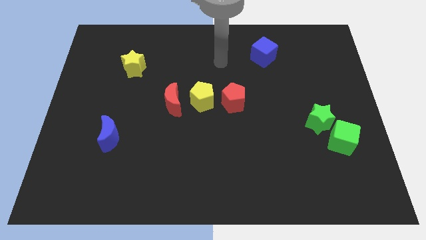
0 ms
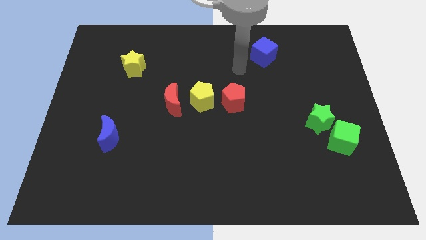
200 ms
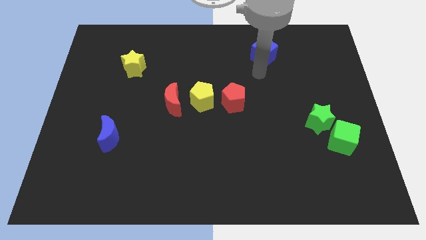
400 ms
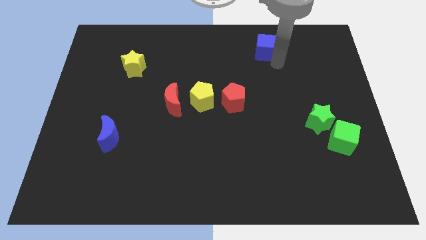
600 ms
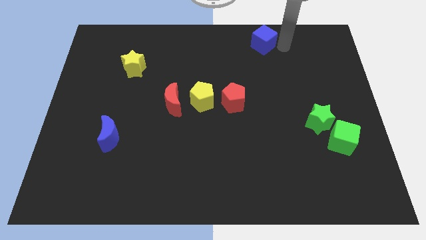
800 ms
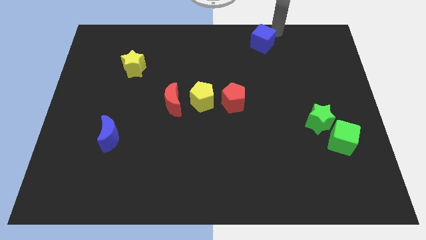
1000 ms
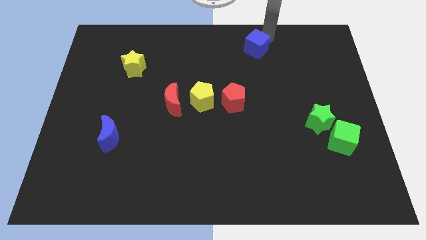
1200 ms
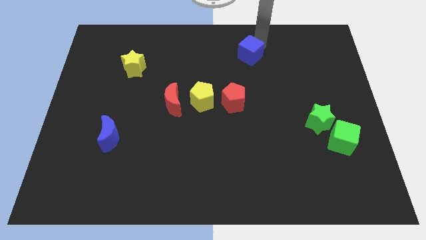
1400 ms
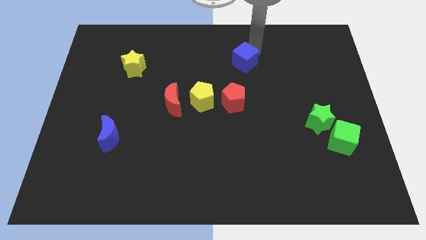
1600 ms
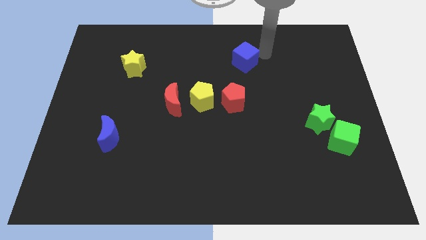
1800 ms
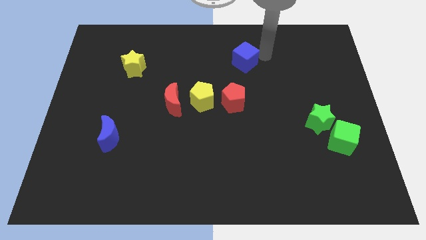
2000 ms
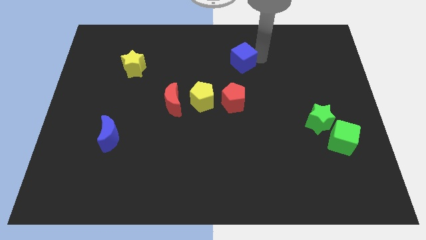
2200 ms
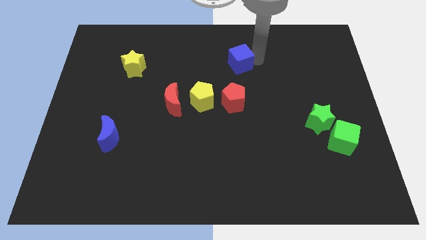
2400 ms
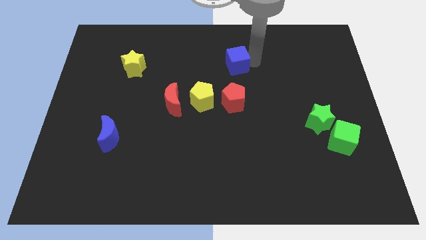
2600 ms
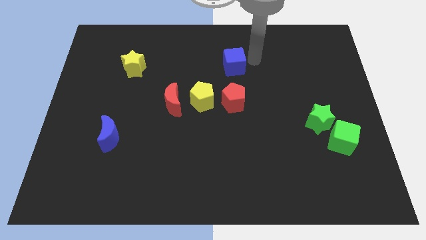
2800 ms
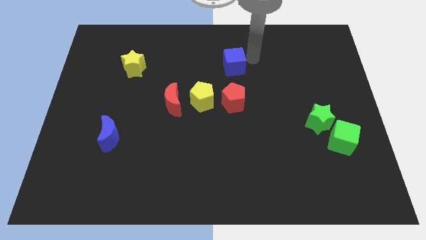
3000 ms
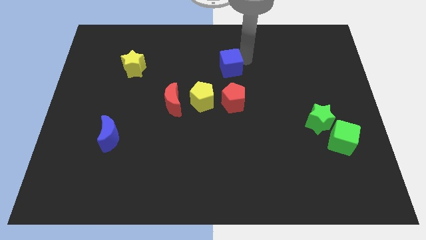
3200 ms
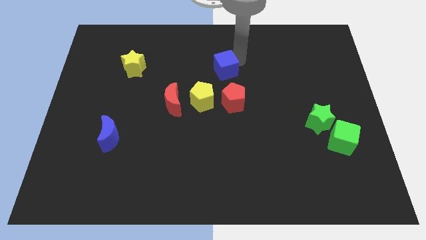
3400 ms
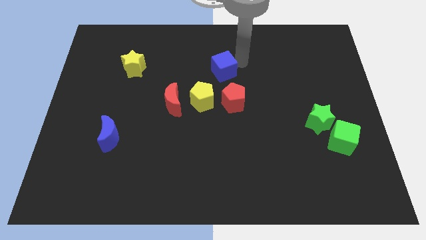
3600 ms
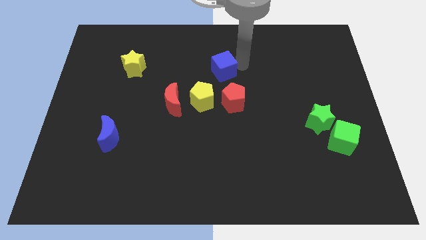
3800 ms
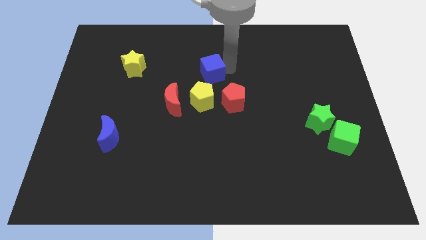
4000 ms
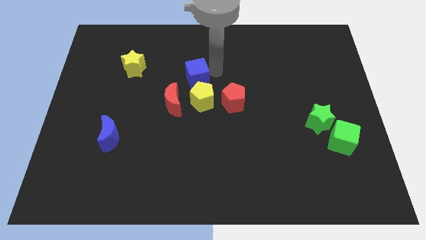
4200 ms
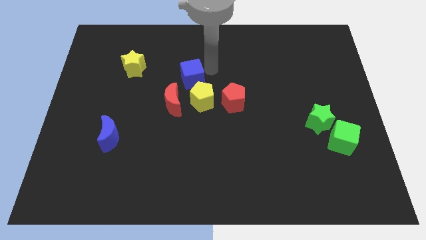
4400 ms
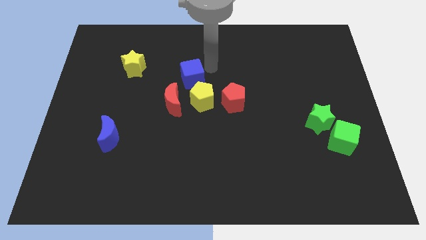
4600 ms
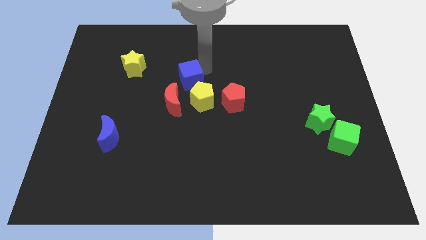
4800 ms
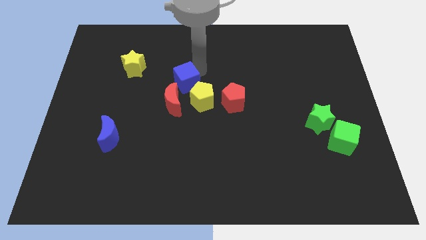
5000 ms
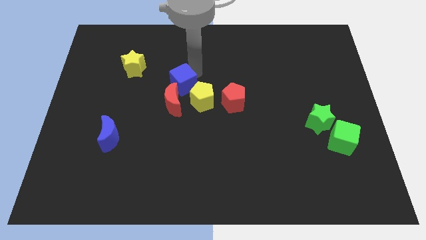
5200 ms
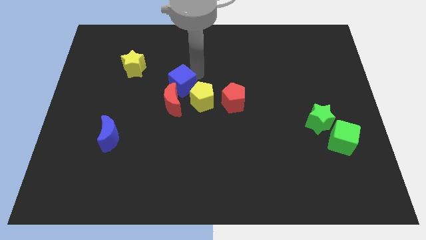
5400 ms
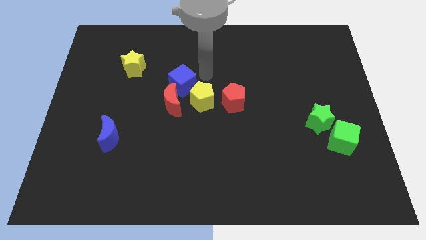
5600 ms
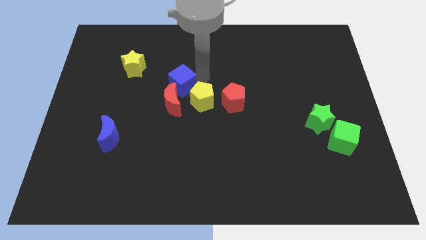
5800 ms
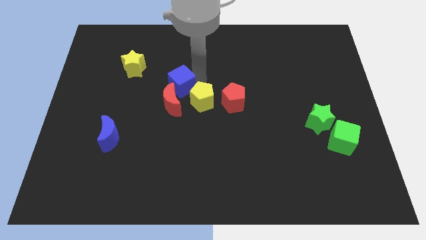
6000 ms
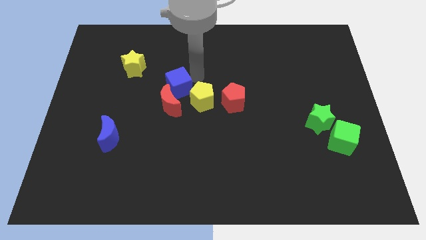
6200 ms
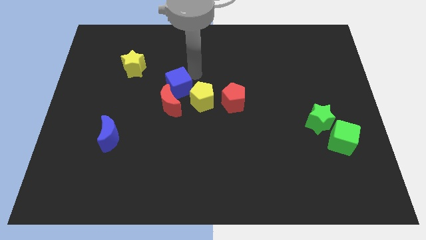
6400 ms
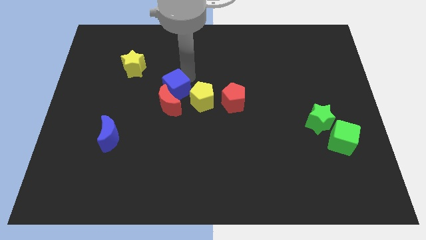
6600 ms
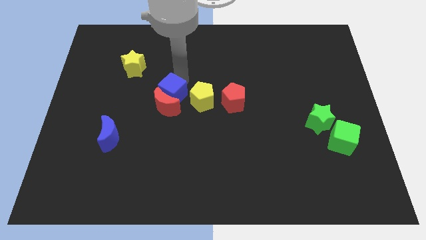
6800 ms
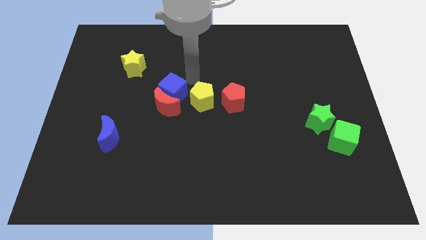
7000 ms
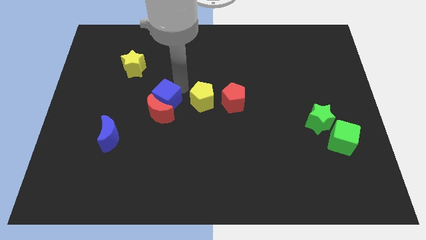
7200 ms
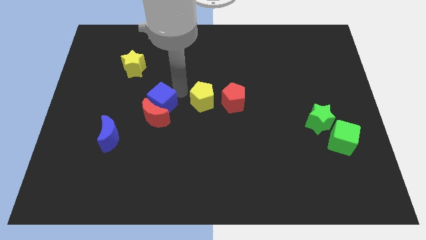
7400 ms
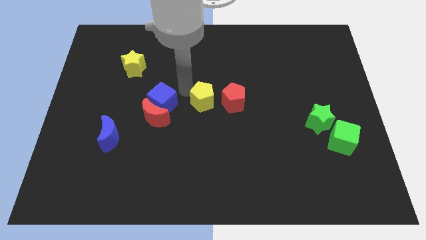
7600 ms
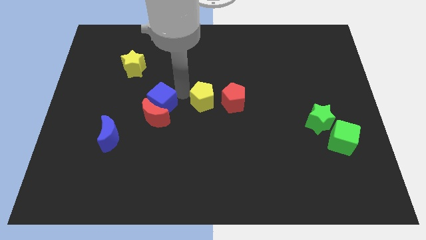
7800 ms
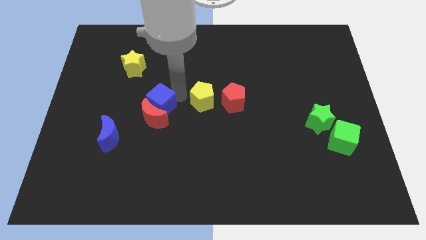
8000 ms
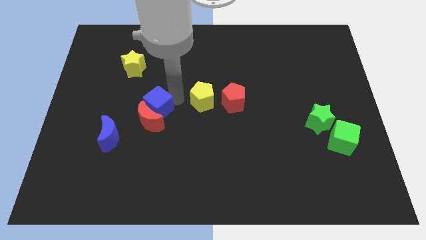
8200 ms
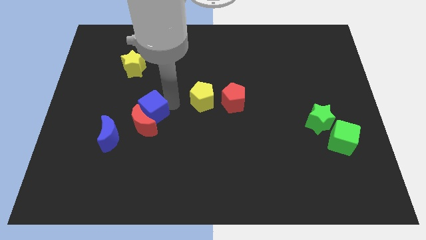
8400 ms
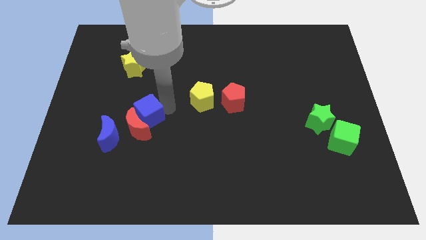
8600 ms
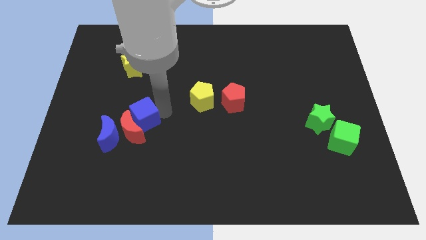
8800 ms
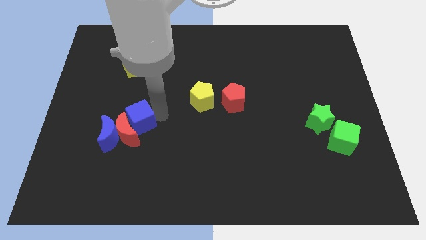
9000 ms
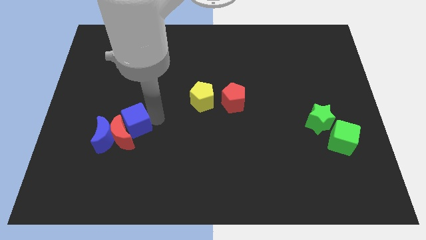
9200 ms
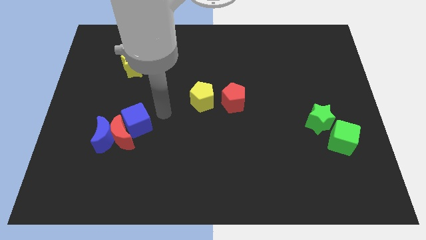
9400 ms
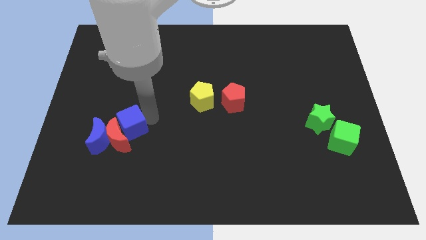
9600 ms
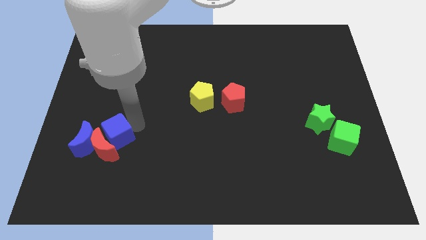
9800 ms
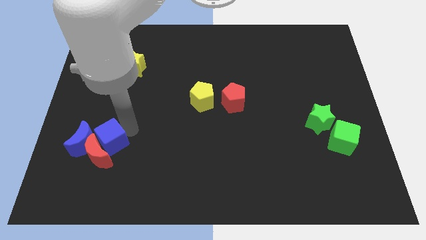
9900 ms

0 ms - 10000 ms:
push the blue cube towards the blue moon

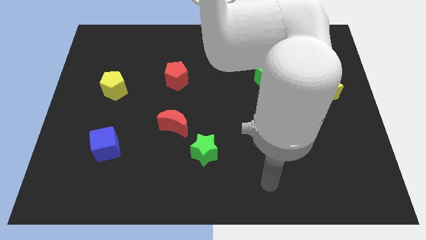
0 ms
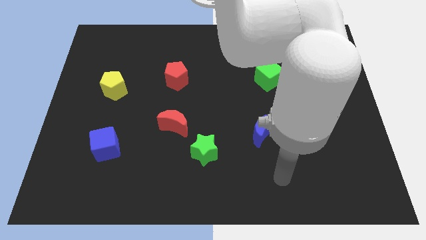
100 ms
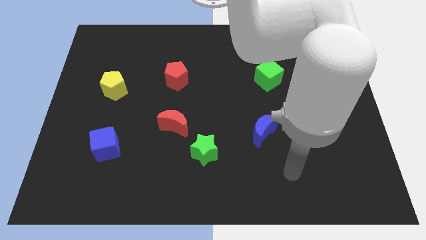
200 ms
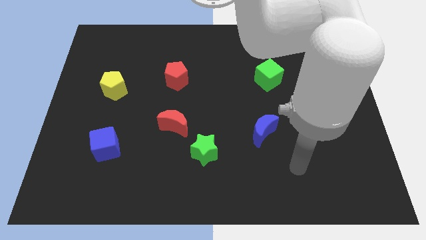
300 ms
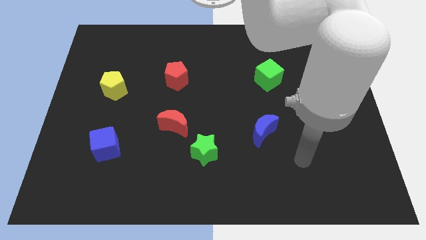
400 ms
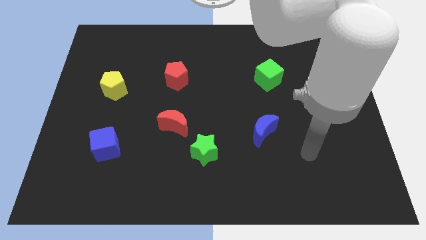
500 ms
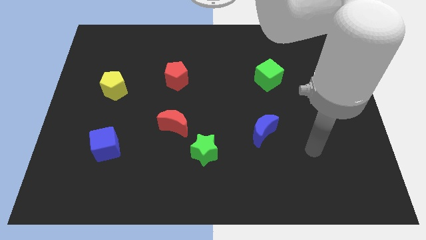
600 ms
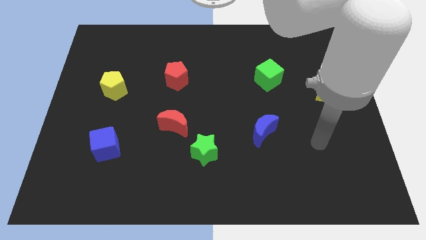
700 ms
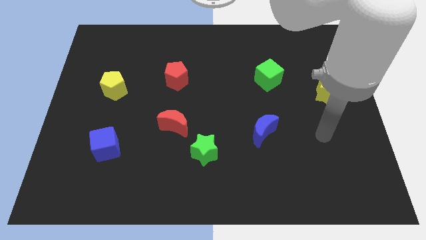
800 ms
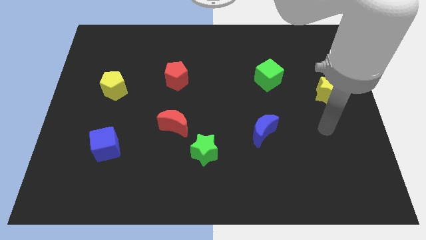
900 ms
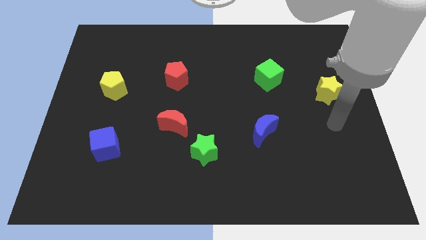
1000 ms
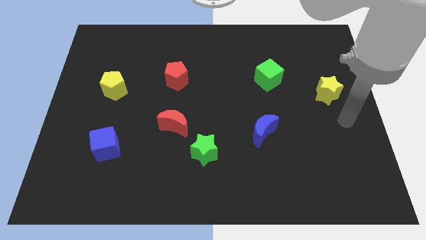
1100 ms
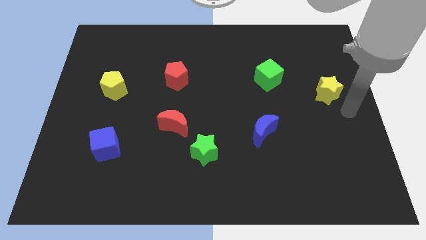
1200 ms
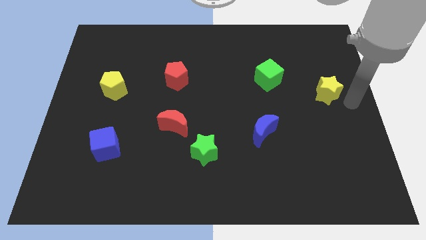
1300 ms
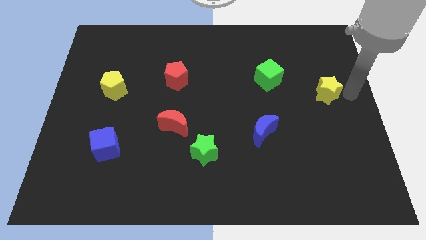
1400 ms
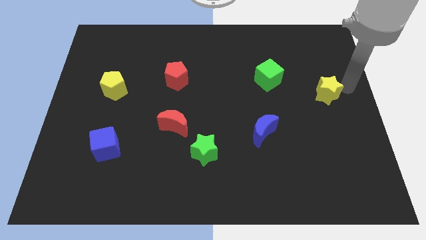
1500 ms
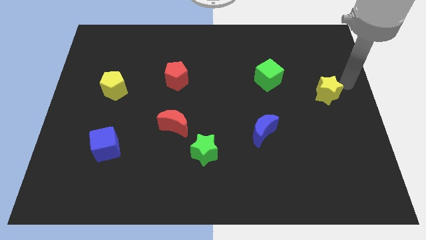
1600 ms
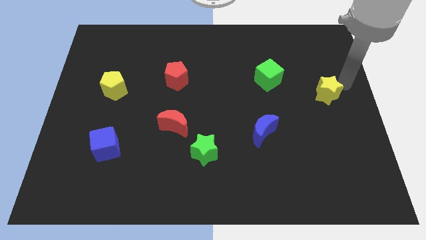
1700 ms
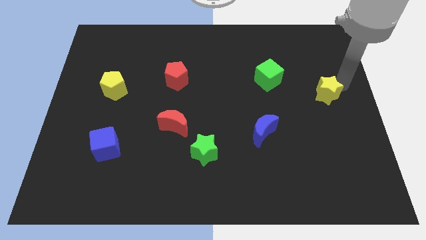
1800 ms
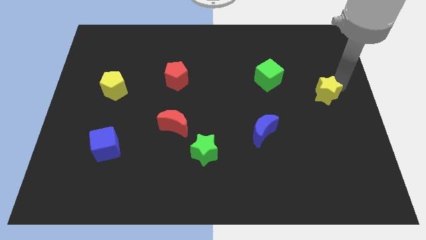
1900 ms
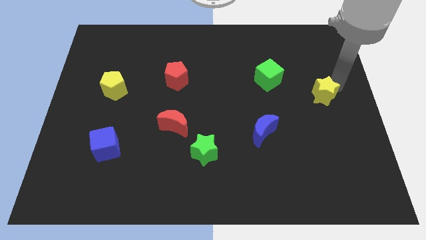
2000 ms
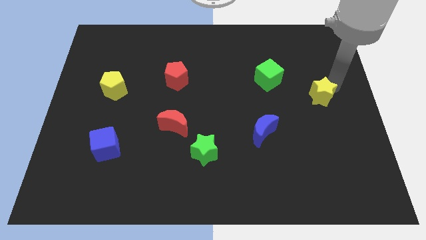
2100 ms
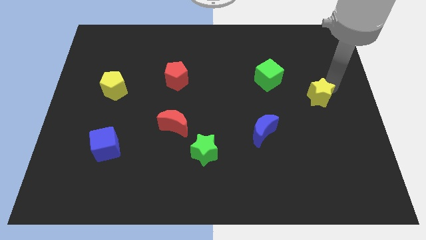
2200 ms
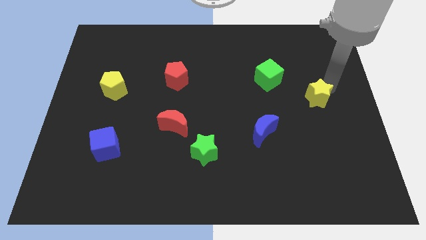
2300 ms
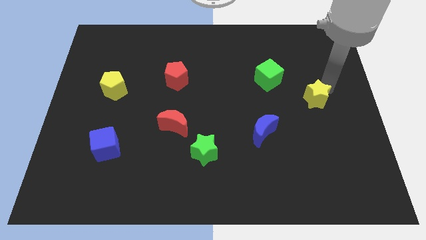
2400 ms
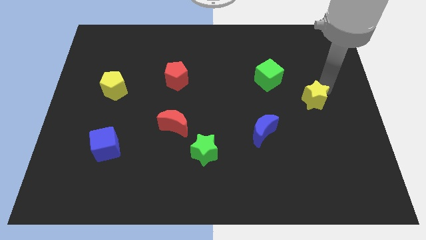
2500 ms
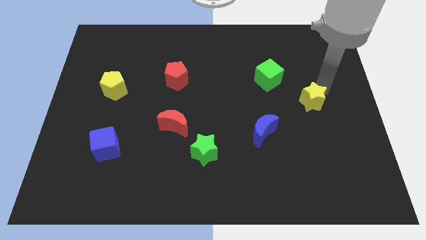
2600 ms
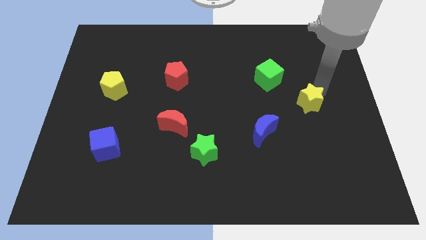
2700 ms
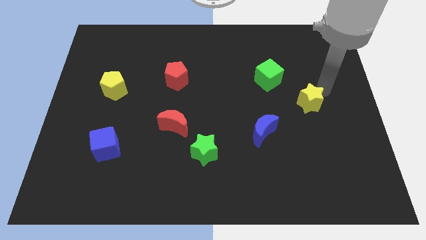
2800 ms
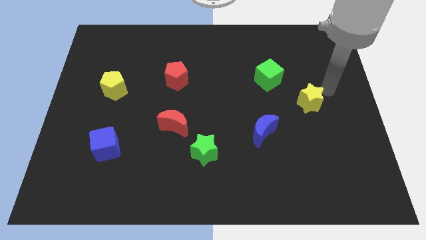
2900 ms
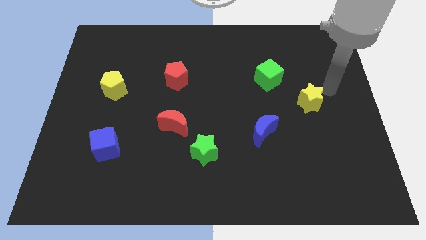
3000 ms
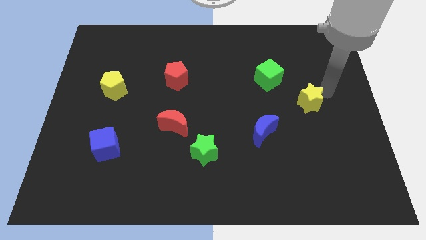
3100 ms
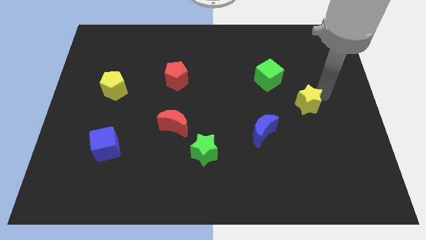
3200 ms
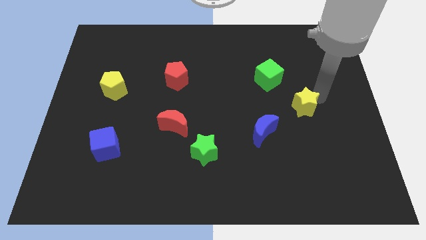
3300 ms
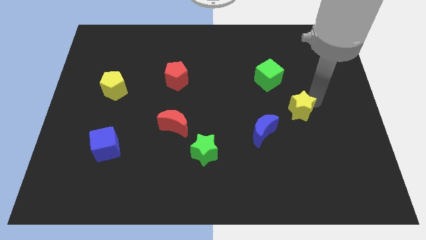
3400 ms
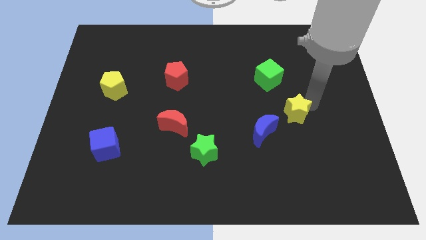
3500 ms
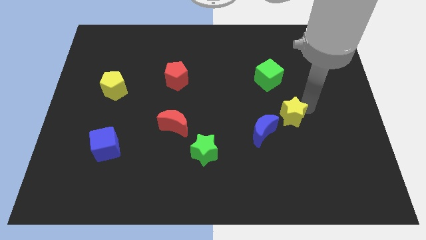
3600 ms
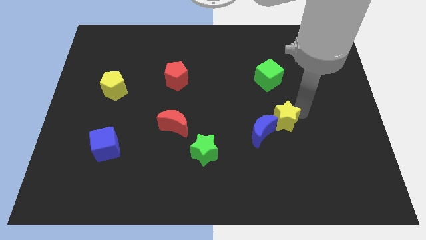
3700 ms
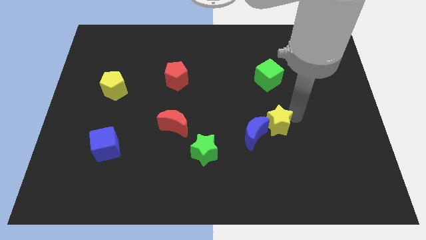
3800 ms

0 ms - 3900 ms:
move the yellow star close to the blue moon
